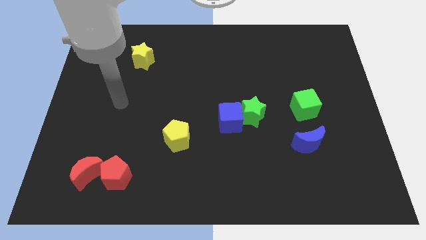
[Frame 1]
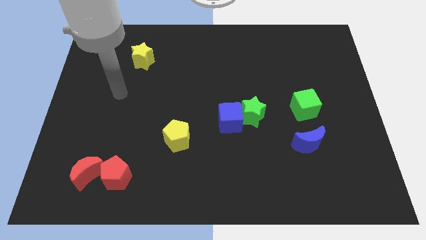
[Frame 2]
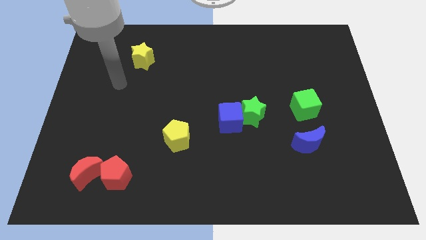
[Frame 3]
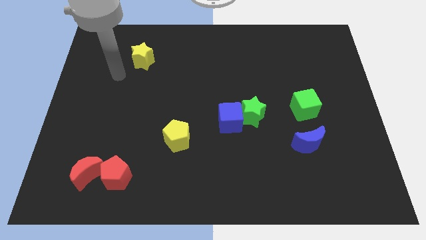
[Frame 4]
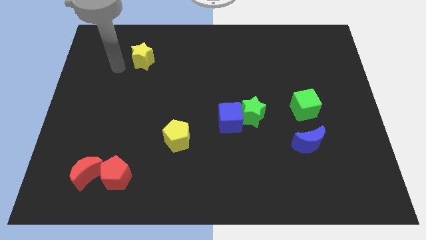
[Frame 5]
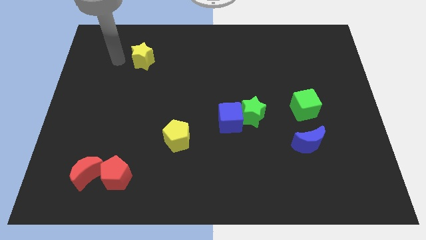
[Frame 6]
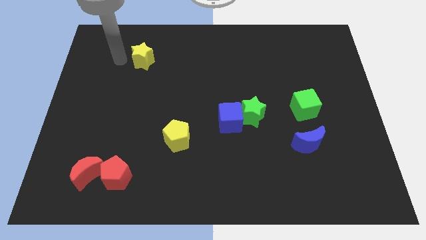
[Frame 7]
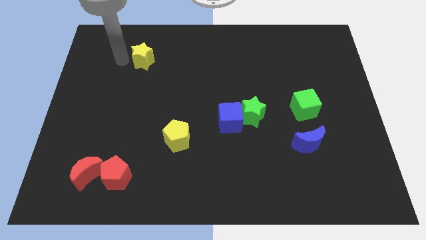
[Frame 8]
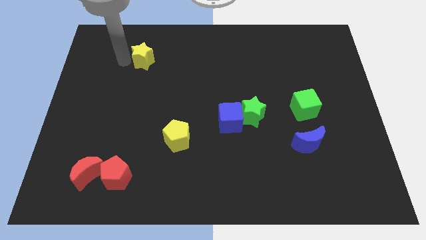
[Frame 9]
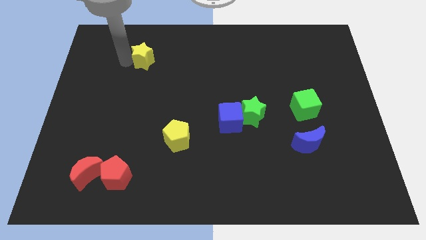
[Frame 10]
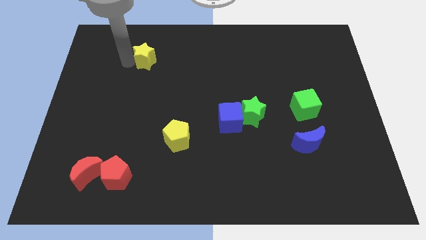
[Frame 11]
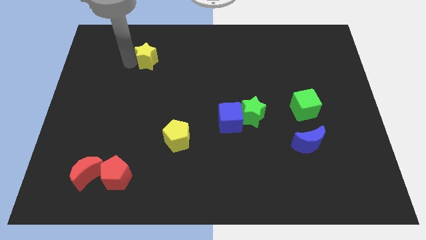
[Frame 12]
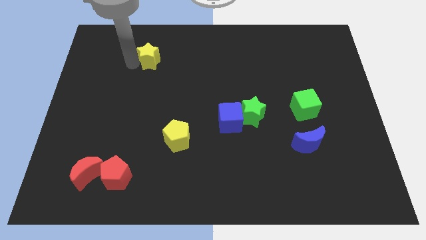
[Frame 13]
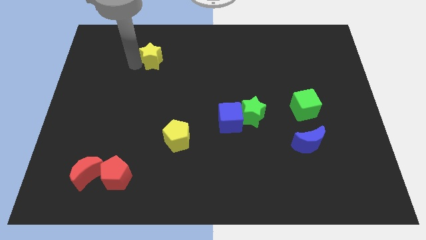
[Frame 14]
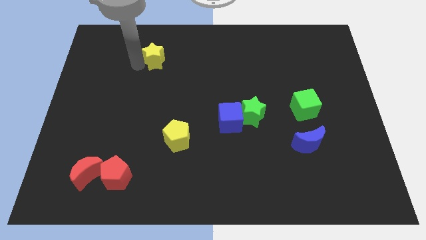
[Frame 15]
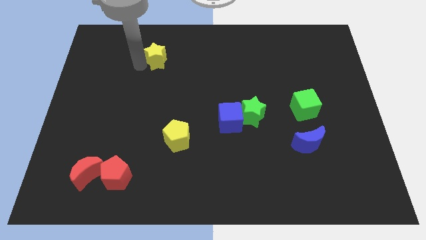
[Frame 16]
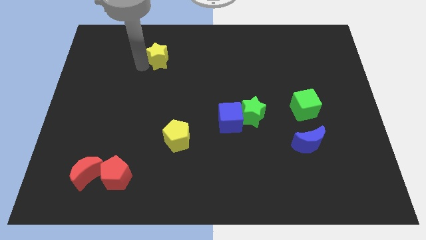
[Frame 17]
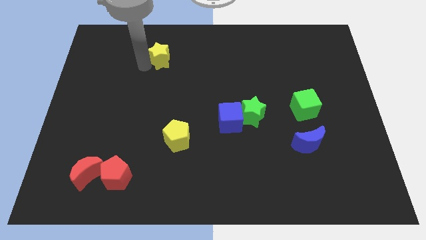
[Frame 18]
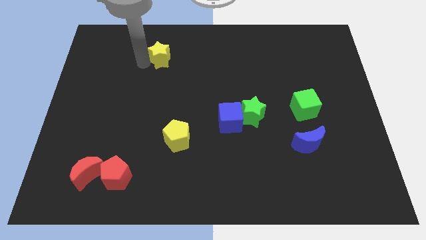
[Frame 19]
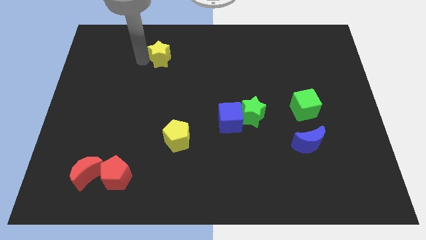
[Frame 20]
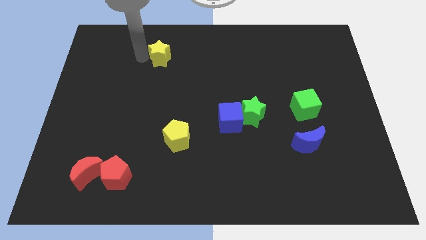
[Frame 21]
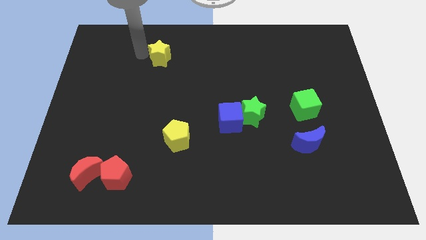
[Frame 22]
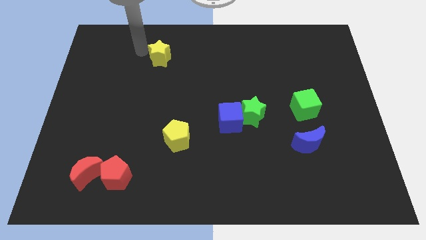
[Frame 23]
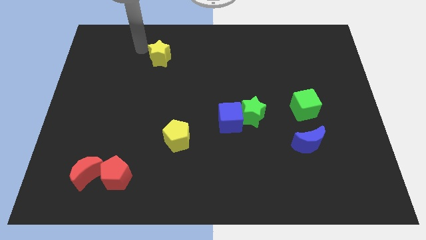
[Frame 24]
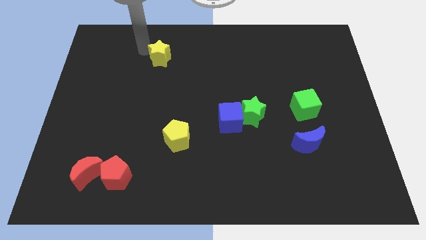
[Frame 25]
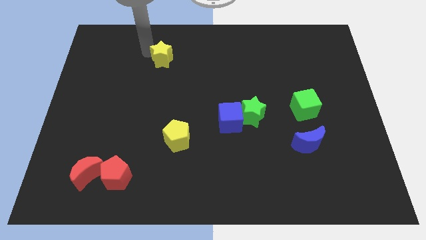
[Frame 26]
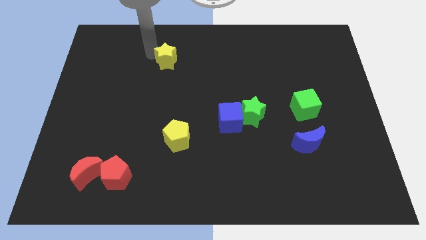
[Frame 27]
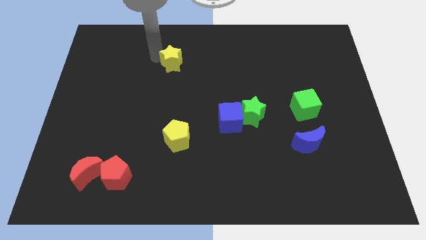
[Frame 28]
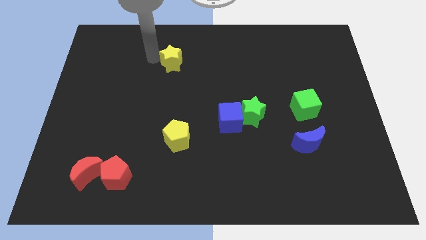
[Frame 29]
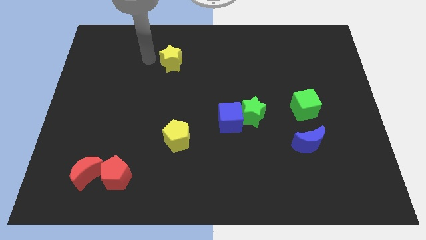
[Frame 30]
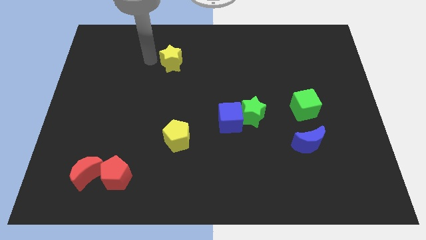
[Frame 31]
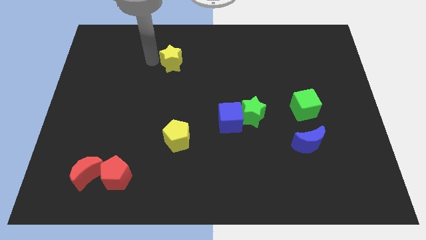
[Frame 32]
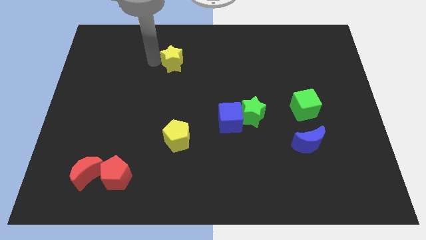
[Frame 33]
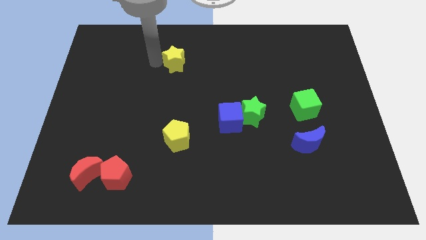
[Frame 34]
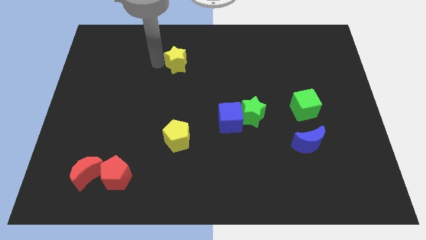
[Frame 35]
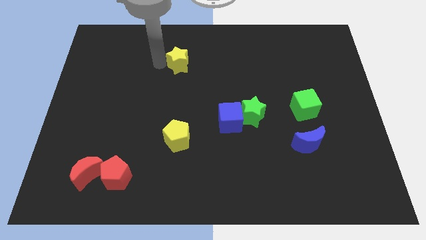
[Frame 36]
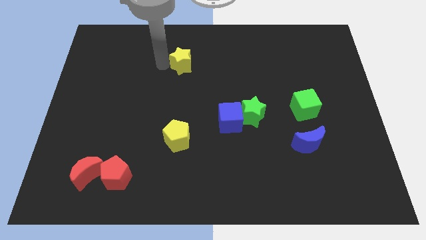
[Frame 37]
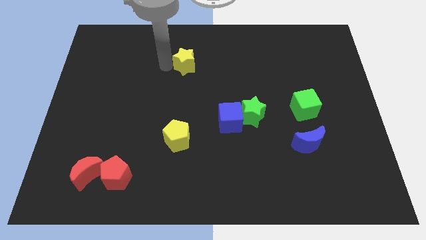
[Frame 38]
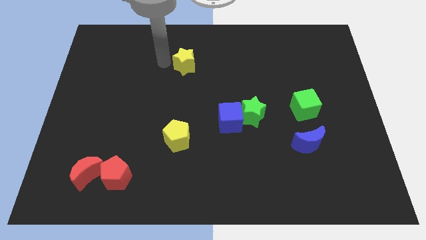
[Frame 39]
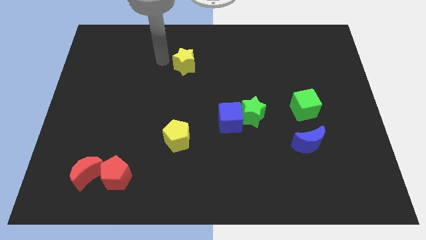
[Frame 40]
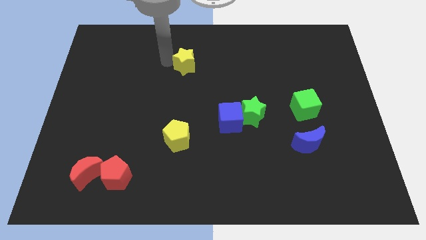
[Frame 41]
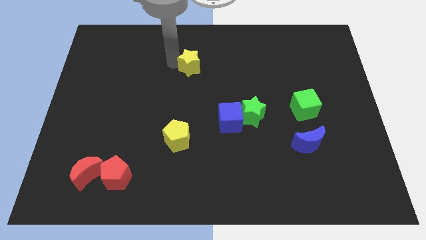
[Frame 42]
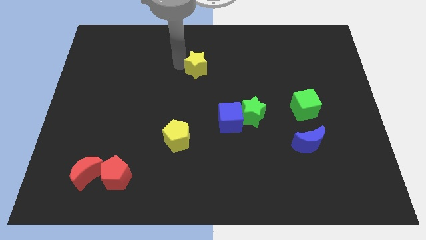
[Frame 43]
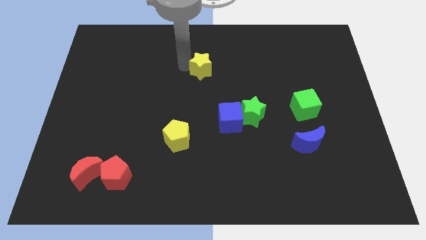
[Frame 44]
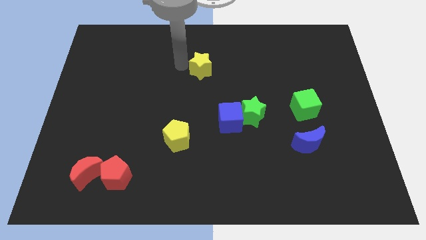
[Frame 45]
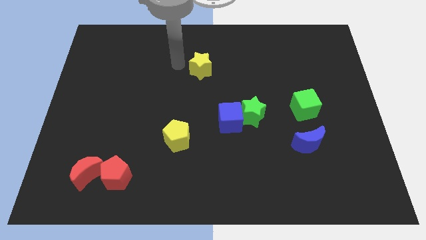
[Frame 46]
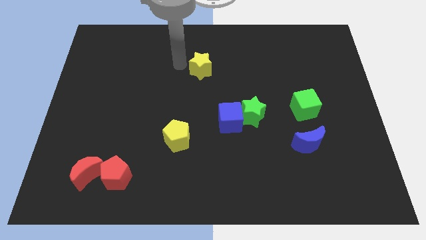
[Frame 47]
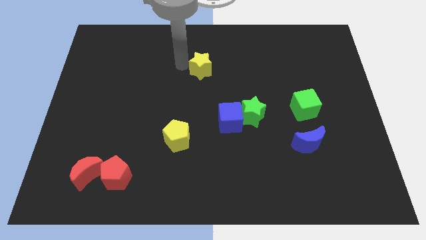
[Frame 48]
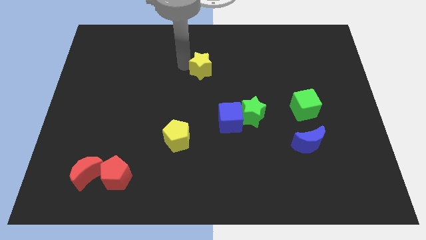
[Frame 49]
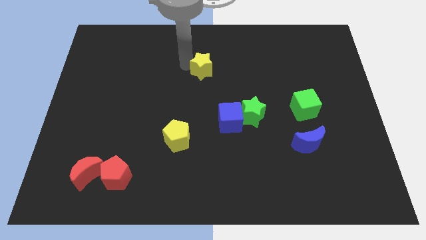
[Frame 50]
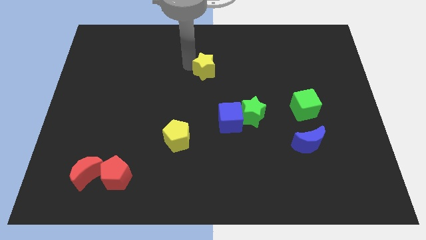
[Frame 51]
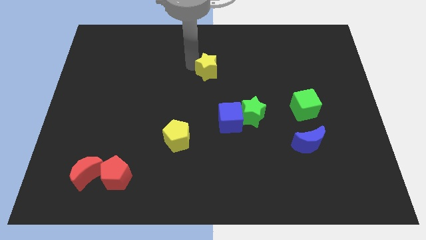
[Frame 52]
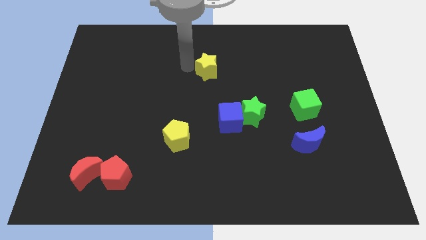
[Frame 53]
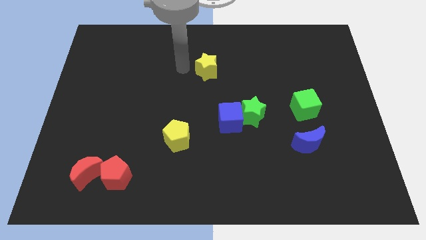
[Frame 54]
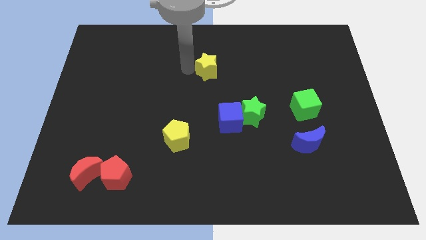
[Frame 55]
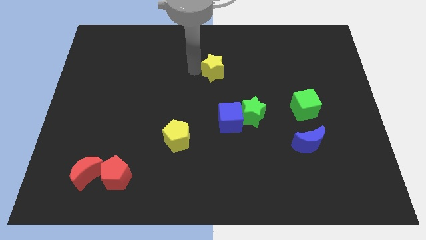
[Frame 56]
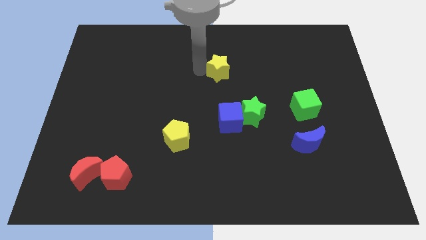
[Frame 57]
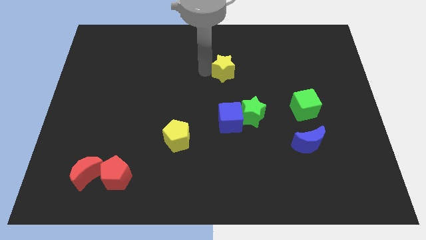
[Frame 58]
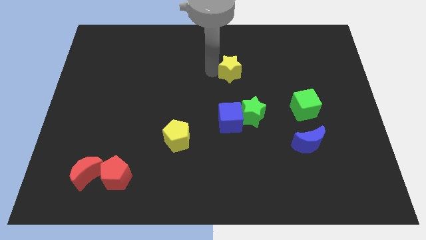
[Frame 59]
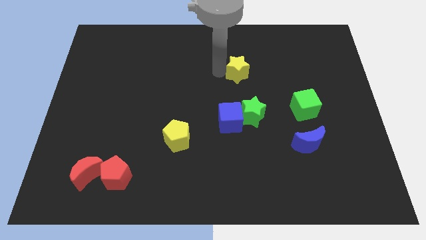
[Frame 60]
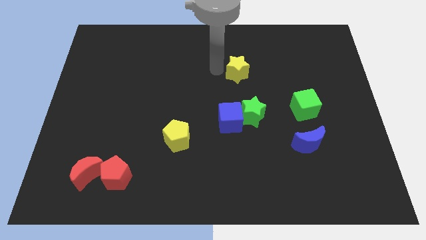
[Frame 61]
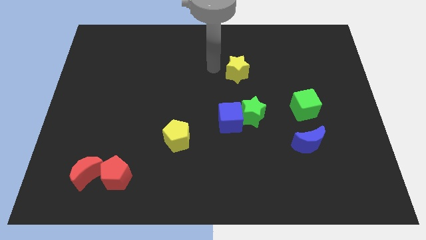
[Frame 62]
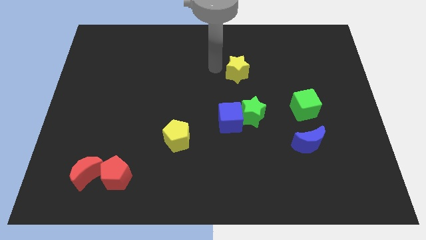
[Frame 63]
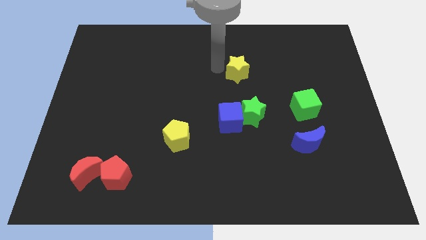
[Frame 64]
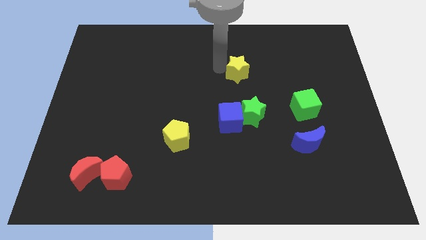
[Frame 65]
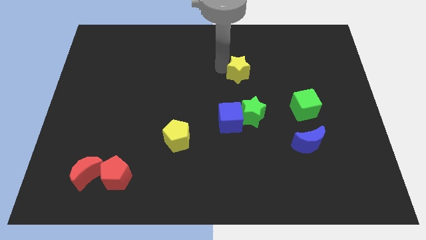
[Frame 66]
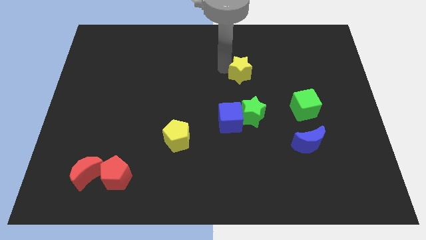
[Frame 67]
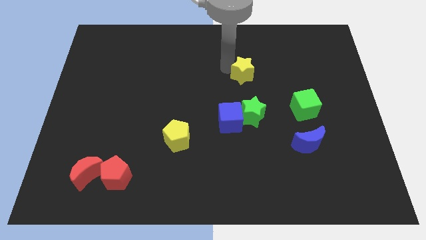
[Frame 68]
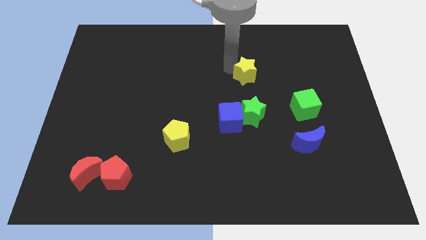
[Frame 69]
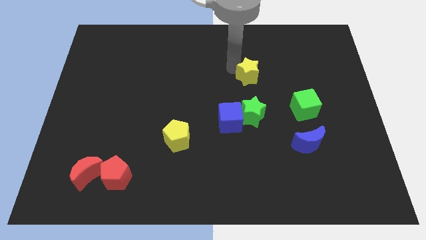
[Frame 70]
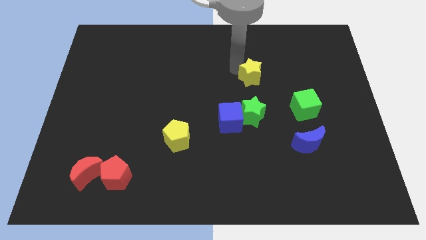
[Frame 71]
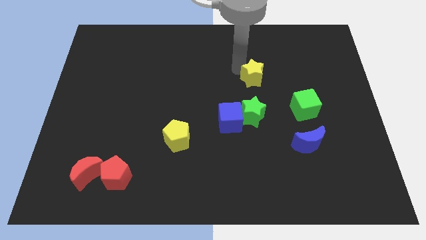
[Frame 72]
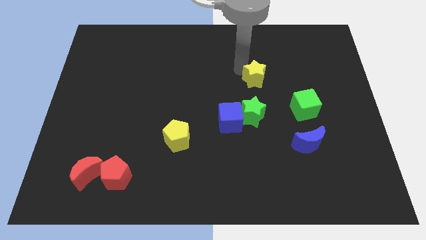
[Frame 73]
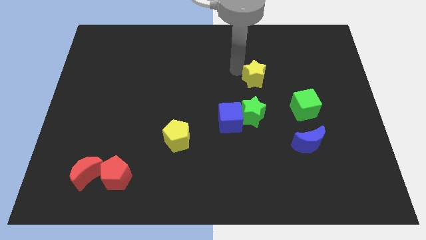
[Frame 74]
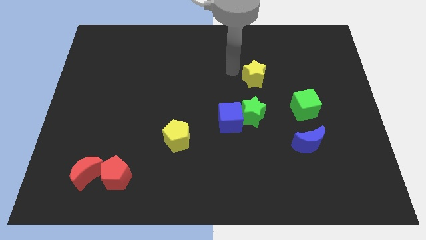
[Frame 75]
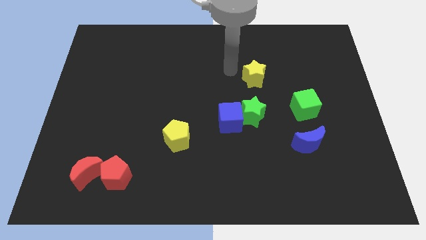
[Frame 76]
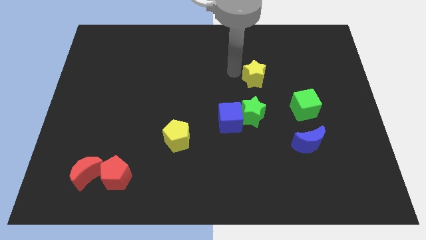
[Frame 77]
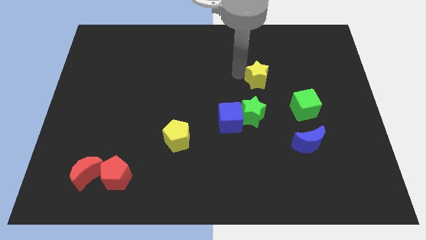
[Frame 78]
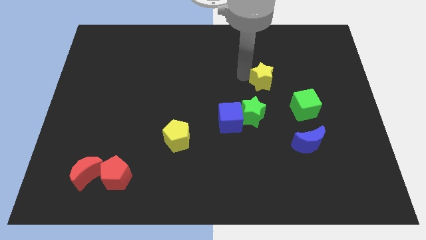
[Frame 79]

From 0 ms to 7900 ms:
slide the yellow star to the top left of the green cube
